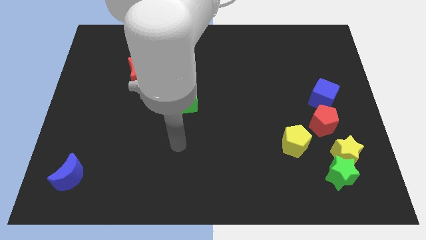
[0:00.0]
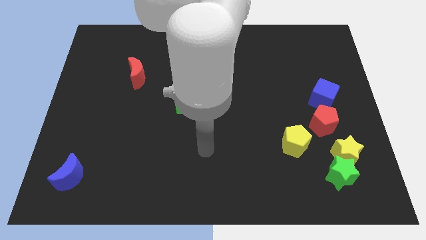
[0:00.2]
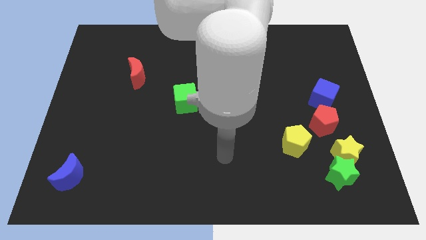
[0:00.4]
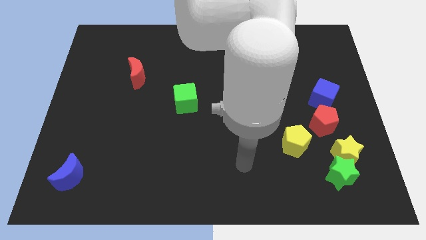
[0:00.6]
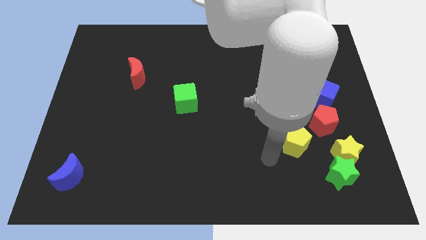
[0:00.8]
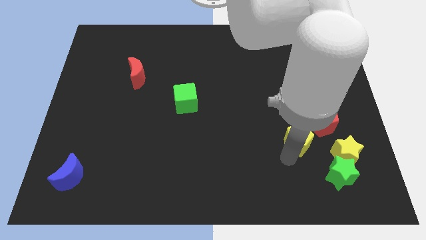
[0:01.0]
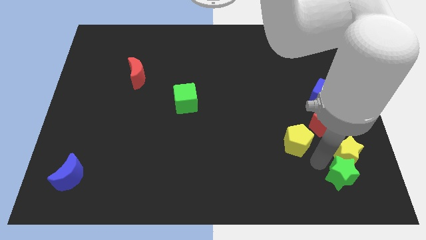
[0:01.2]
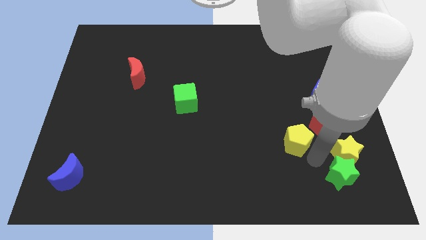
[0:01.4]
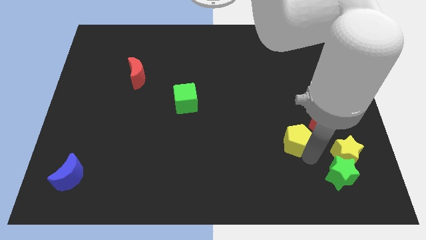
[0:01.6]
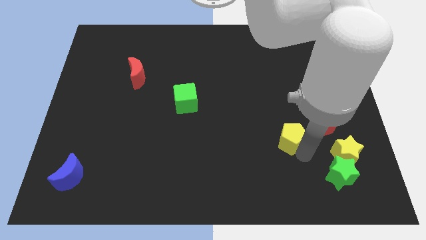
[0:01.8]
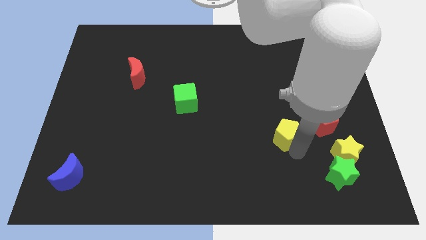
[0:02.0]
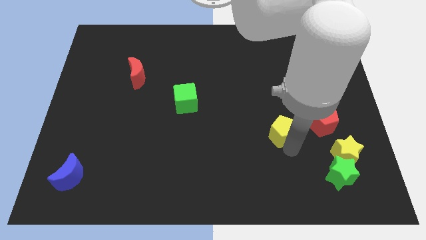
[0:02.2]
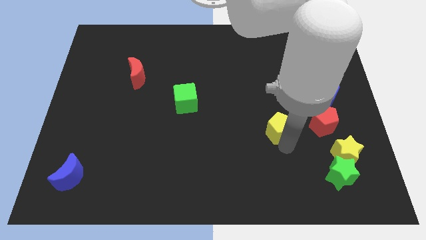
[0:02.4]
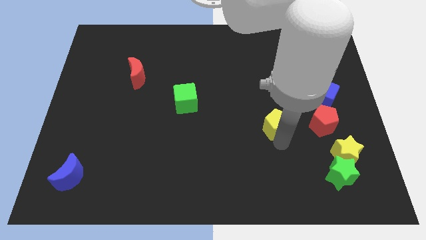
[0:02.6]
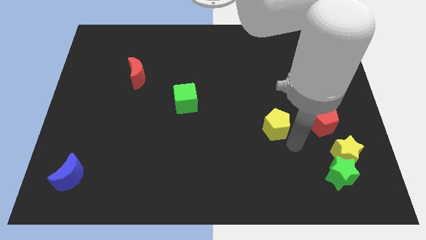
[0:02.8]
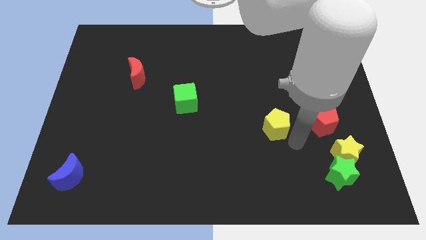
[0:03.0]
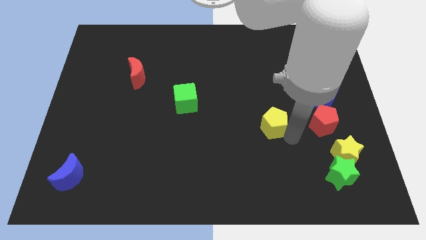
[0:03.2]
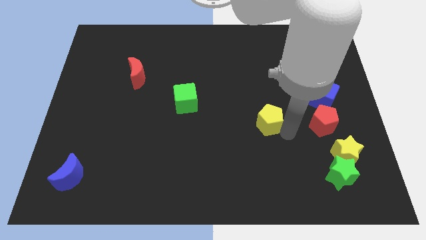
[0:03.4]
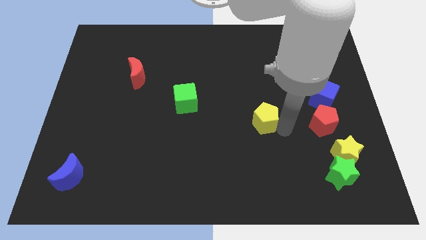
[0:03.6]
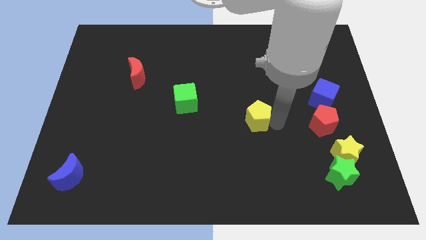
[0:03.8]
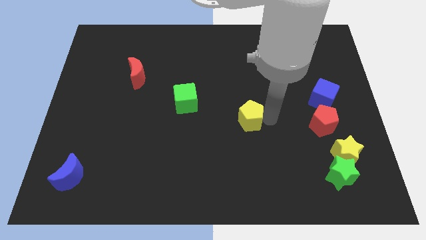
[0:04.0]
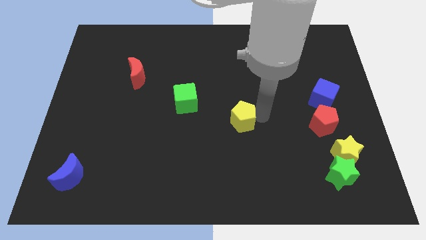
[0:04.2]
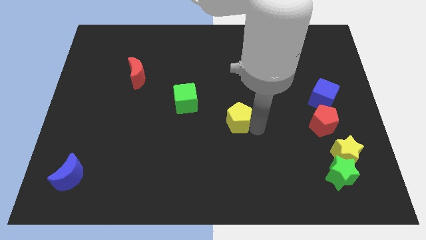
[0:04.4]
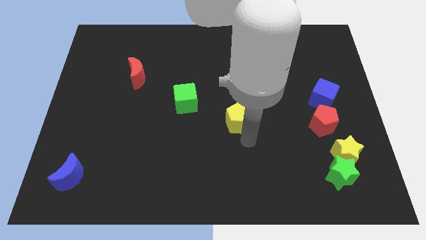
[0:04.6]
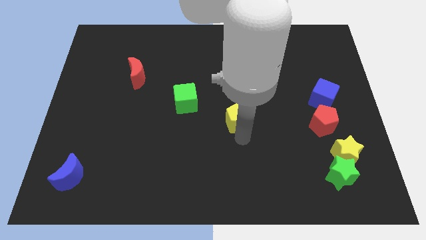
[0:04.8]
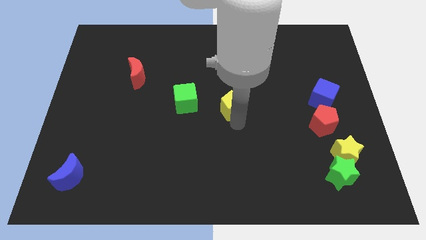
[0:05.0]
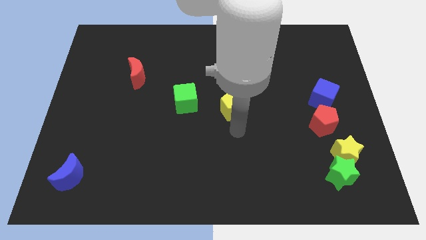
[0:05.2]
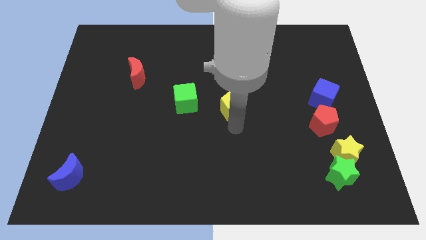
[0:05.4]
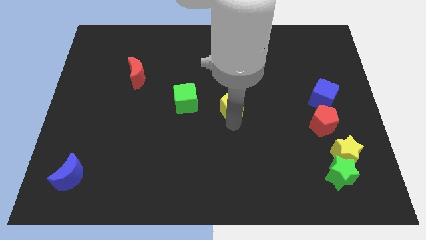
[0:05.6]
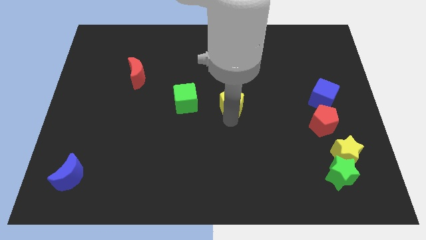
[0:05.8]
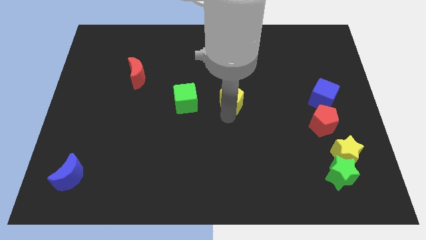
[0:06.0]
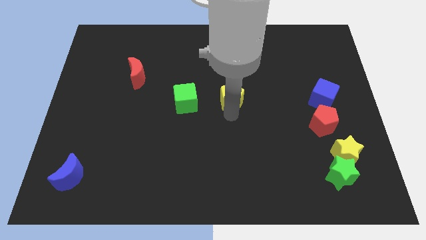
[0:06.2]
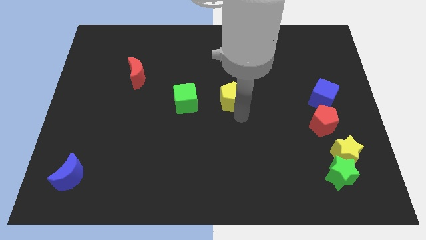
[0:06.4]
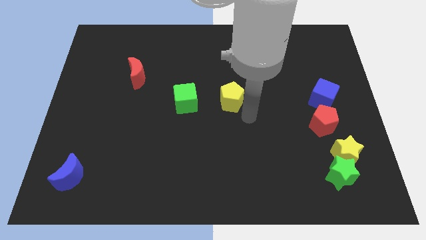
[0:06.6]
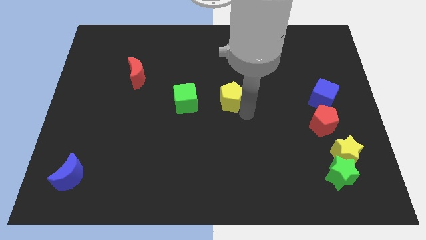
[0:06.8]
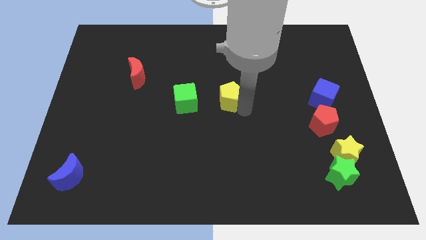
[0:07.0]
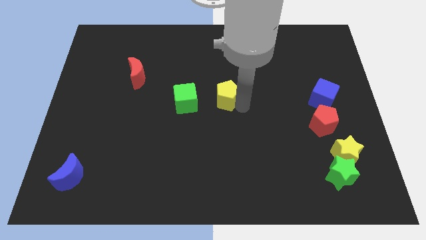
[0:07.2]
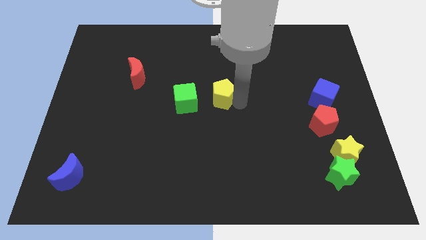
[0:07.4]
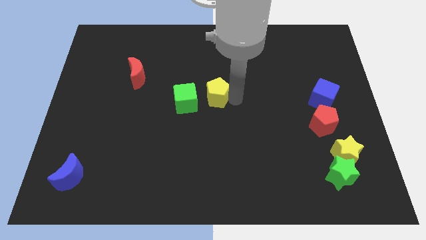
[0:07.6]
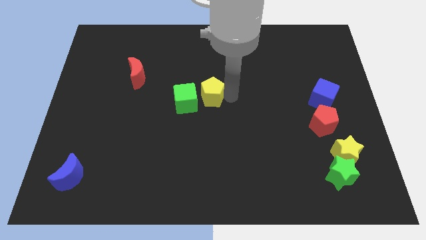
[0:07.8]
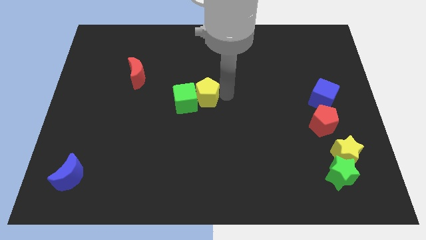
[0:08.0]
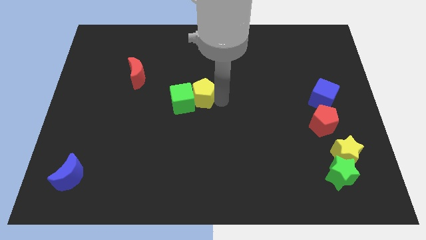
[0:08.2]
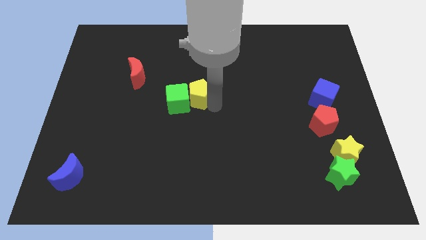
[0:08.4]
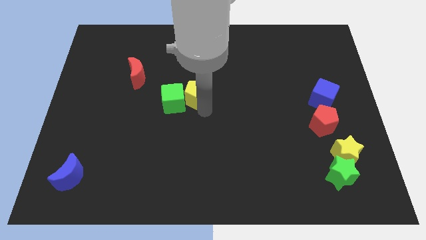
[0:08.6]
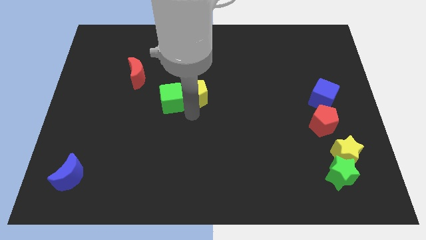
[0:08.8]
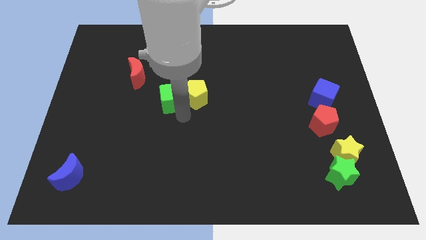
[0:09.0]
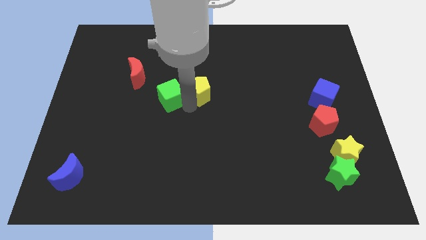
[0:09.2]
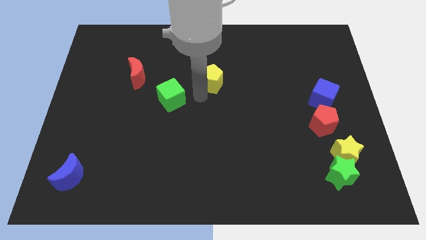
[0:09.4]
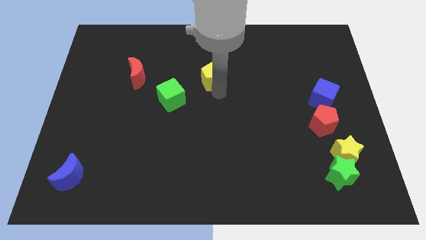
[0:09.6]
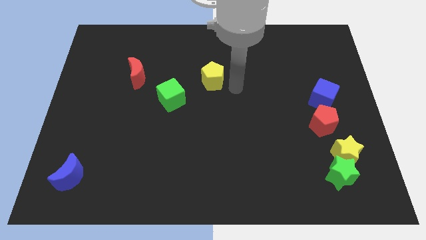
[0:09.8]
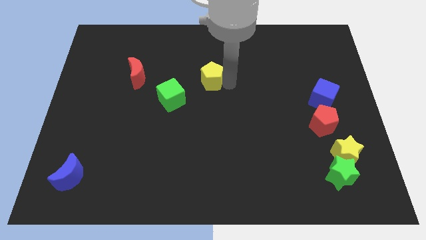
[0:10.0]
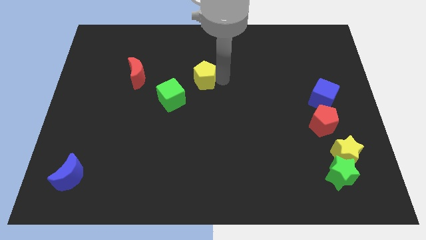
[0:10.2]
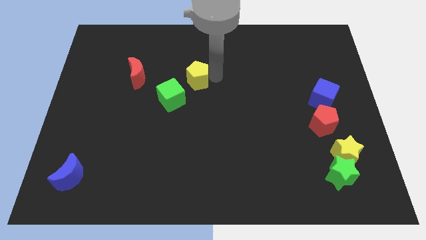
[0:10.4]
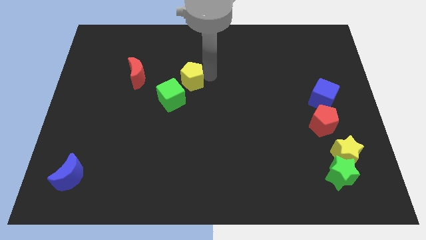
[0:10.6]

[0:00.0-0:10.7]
push the yellow pentagon to the top side of the green cube

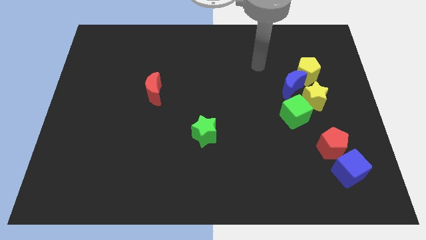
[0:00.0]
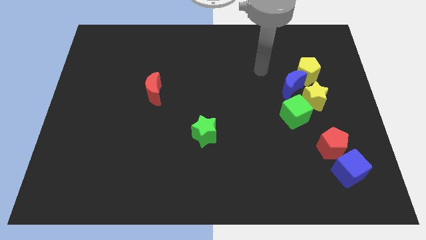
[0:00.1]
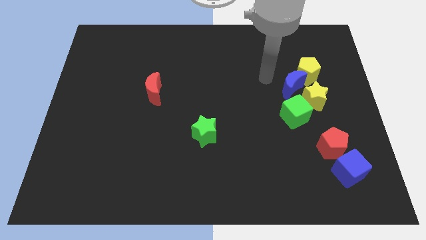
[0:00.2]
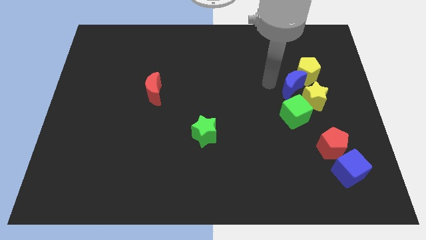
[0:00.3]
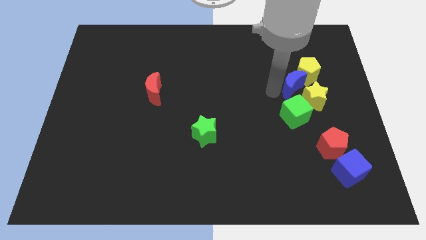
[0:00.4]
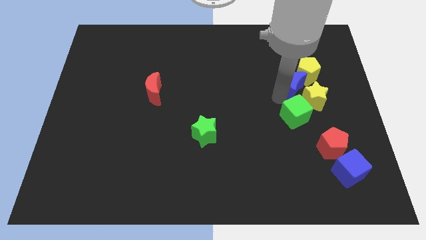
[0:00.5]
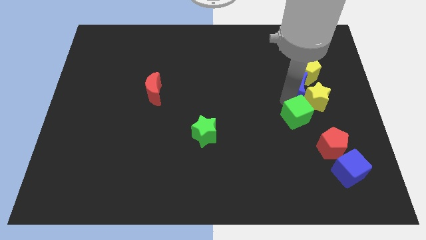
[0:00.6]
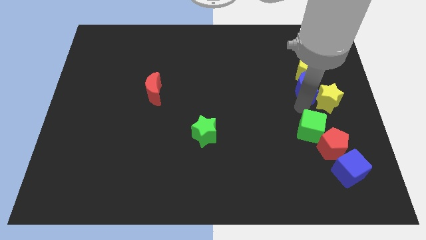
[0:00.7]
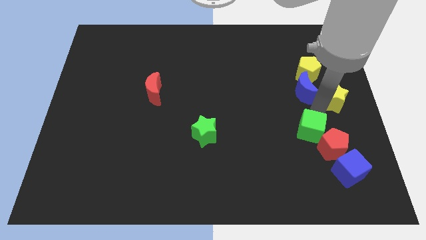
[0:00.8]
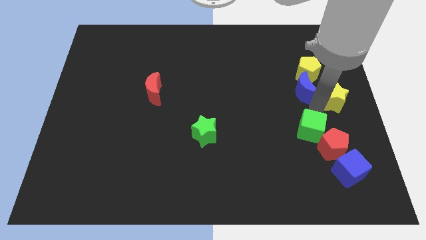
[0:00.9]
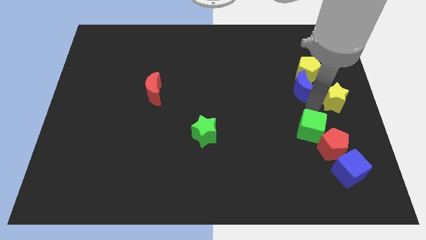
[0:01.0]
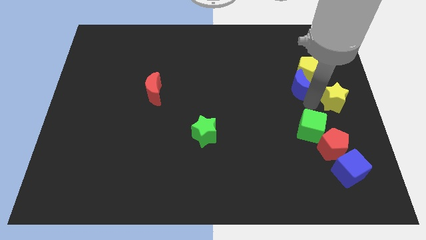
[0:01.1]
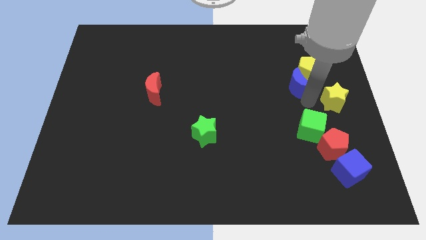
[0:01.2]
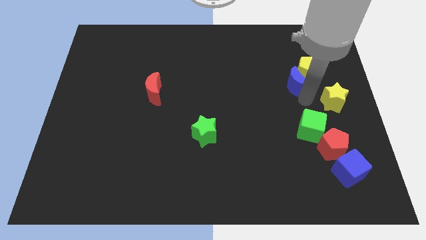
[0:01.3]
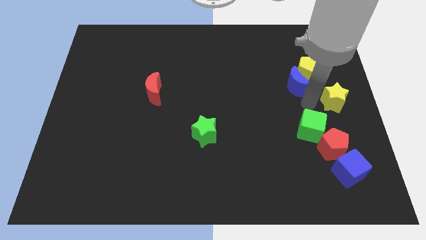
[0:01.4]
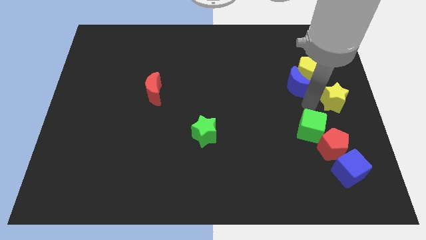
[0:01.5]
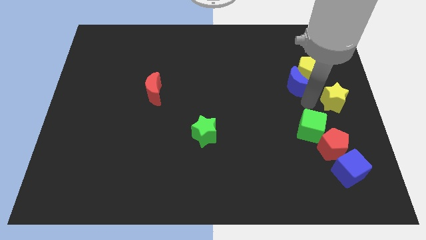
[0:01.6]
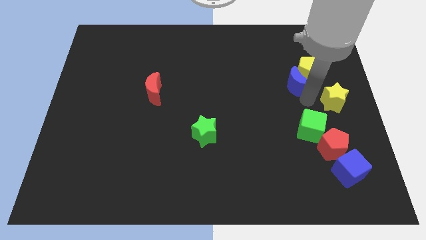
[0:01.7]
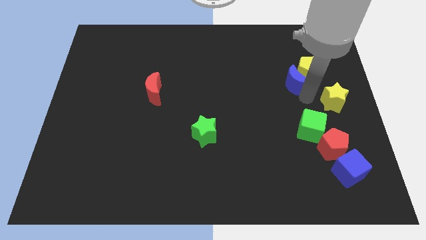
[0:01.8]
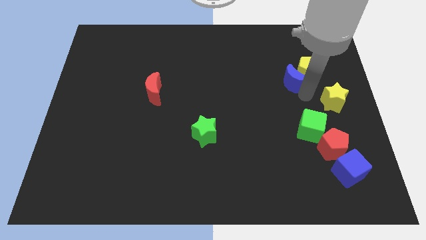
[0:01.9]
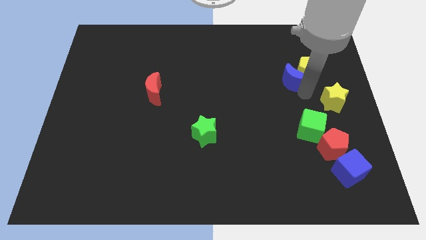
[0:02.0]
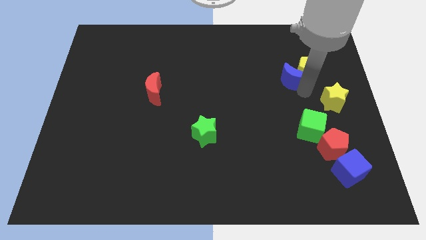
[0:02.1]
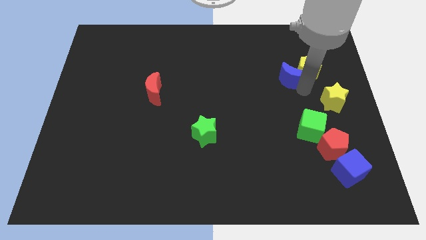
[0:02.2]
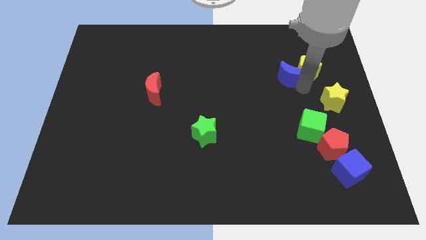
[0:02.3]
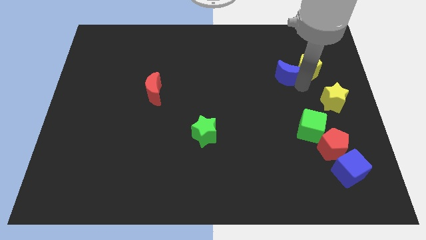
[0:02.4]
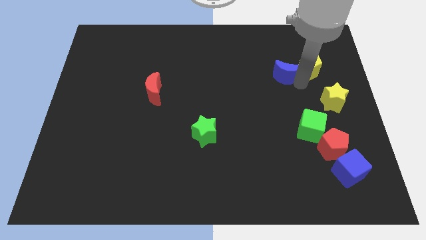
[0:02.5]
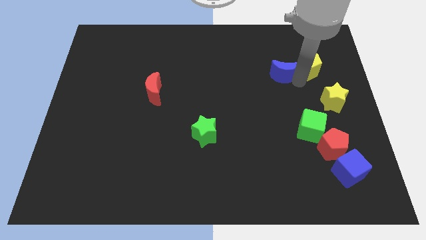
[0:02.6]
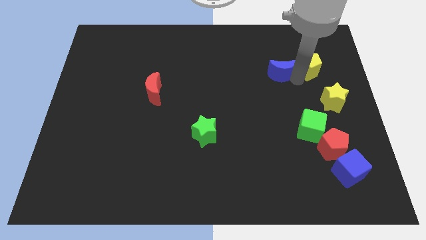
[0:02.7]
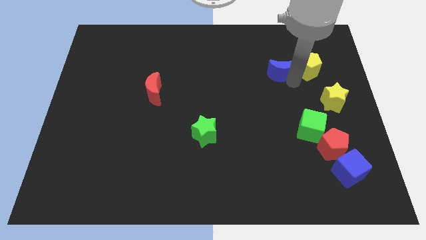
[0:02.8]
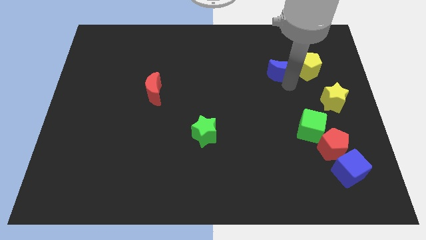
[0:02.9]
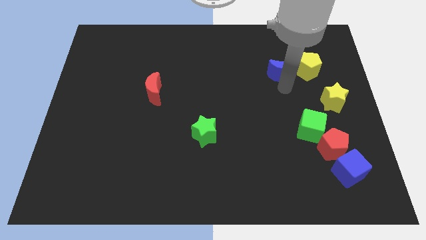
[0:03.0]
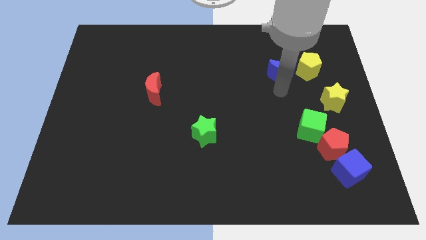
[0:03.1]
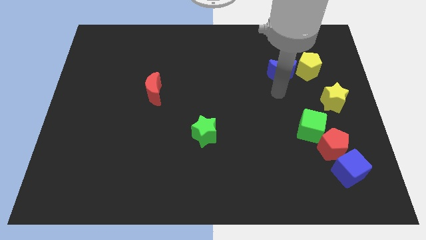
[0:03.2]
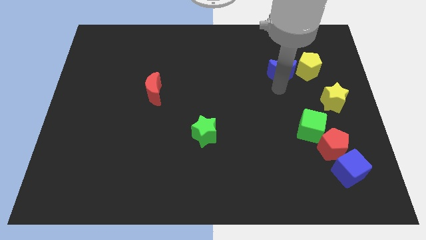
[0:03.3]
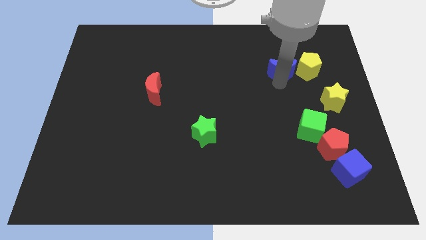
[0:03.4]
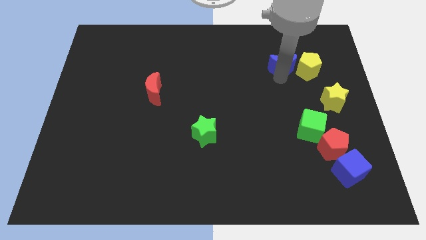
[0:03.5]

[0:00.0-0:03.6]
push the blue moon to the top left of the yellow pentagon
